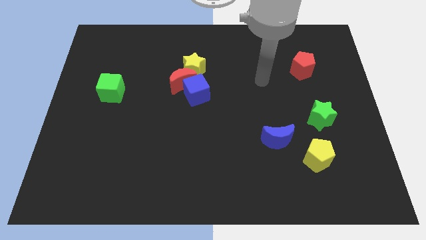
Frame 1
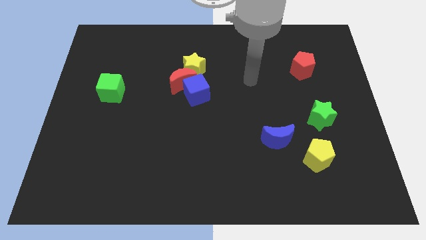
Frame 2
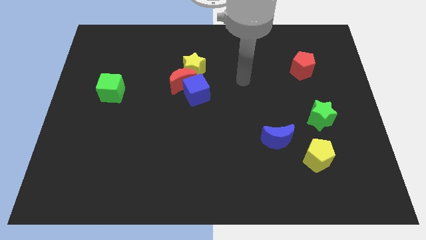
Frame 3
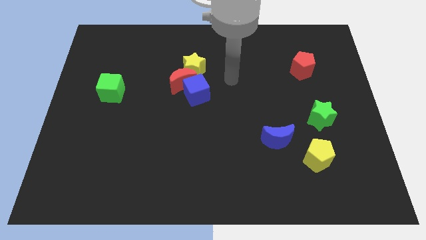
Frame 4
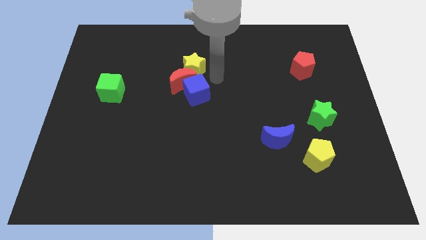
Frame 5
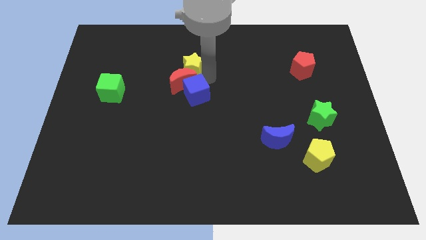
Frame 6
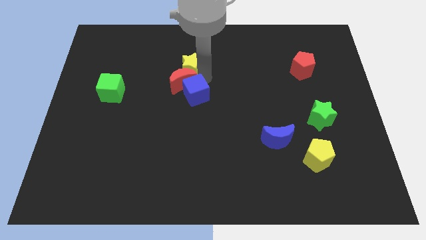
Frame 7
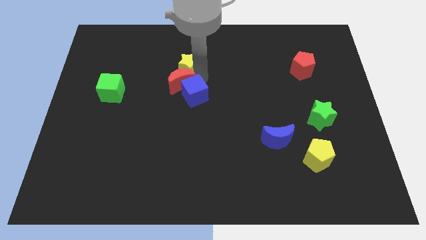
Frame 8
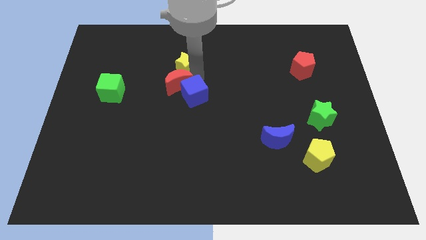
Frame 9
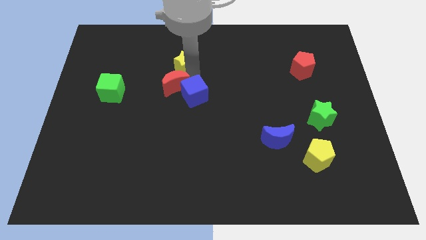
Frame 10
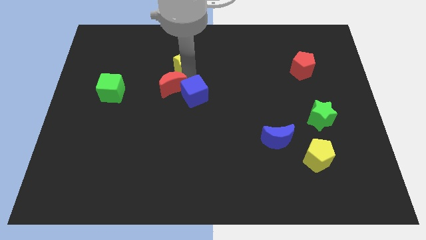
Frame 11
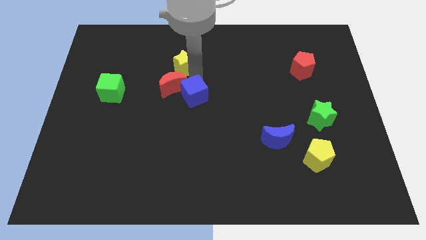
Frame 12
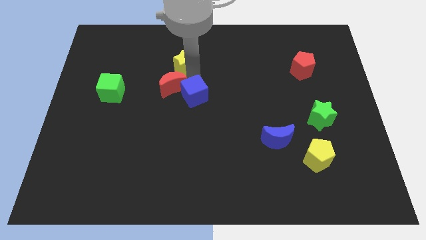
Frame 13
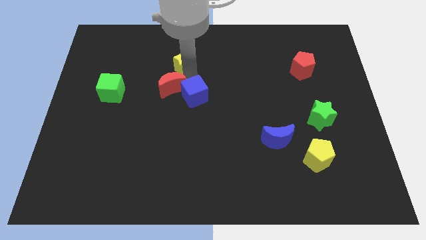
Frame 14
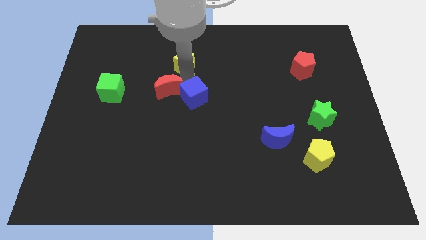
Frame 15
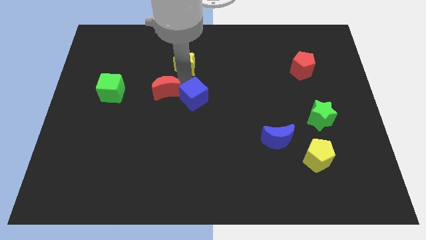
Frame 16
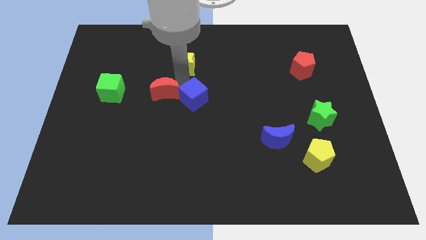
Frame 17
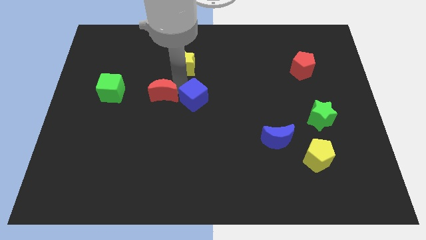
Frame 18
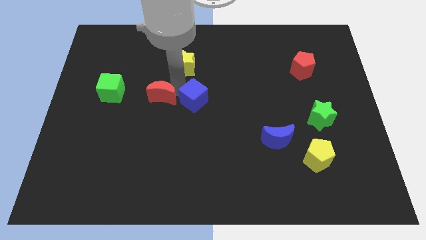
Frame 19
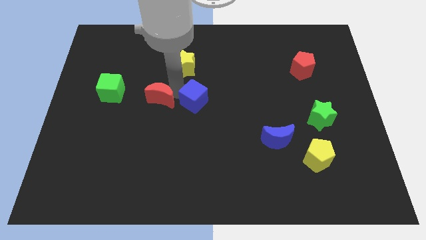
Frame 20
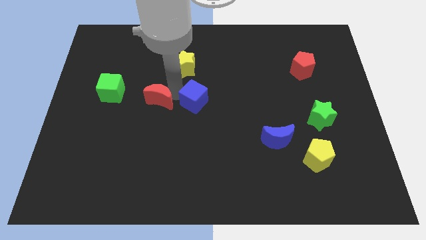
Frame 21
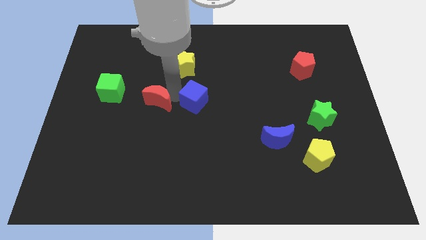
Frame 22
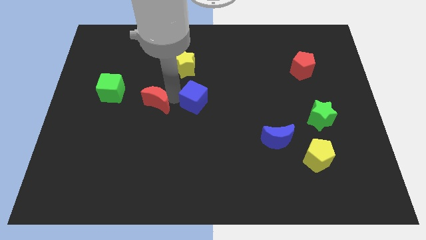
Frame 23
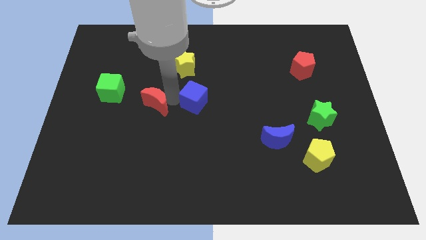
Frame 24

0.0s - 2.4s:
pull the red moon apart from the blue cube and yellow star

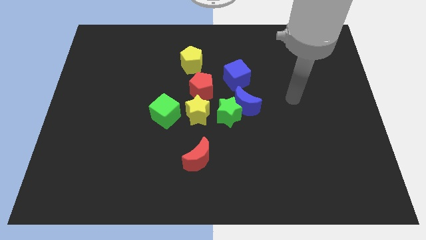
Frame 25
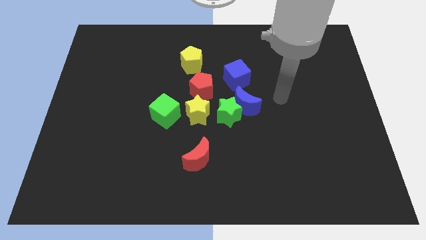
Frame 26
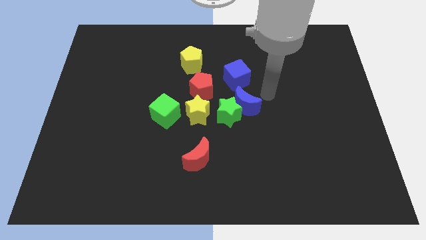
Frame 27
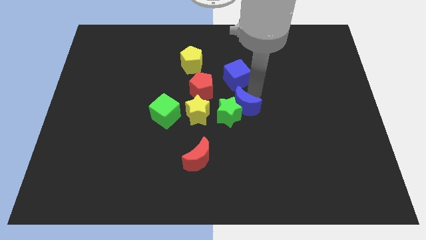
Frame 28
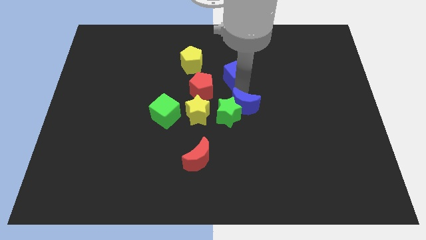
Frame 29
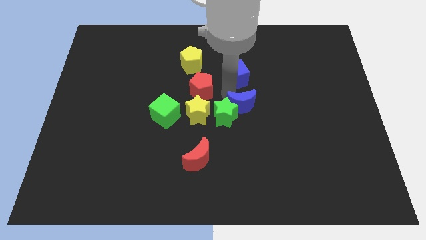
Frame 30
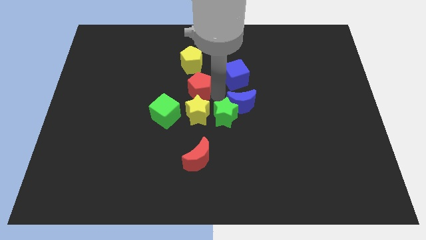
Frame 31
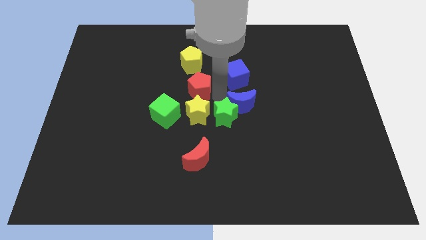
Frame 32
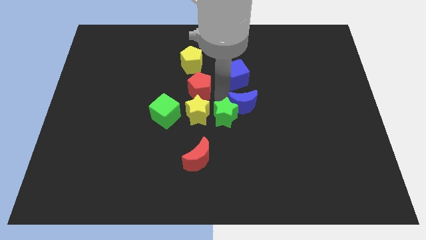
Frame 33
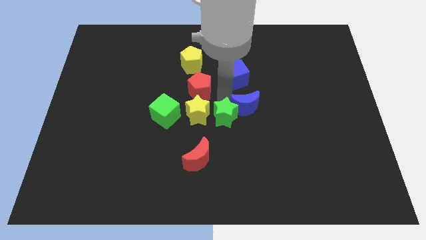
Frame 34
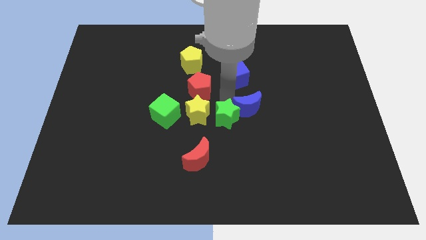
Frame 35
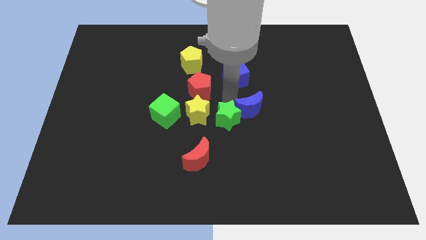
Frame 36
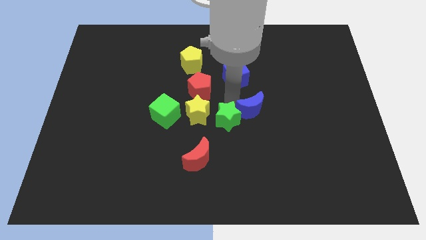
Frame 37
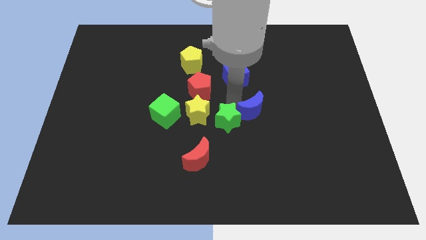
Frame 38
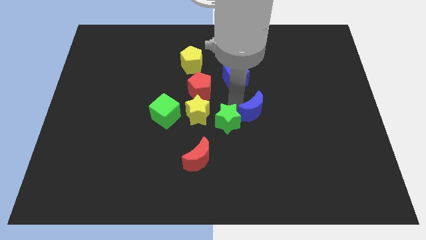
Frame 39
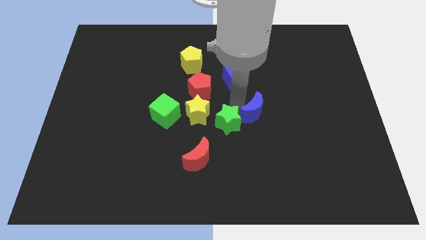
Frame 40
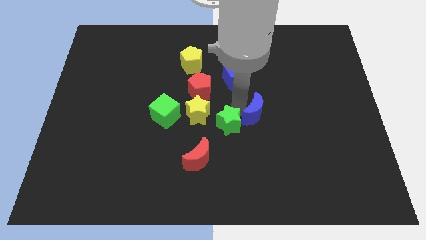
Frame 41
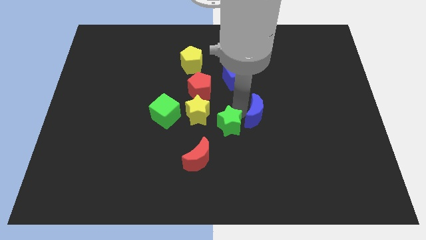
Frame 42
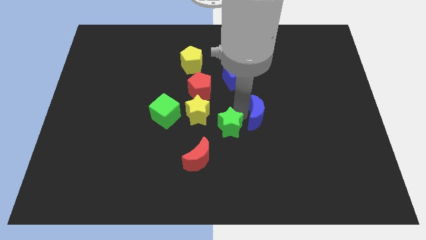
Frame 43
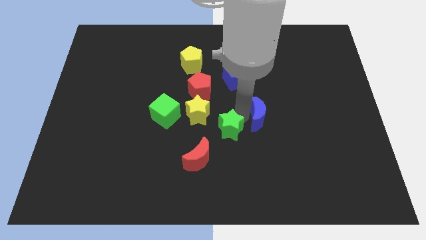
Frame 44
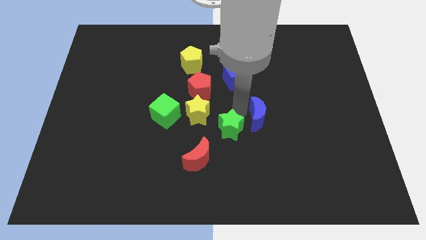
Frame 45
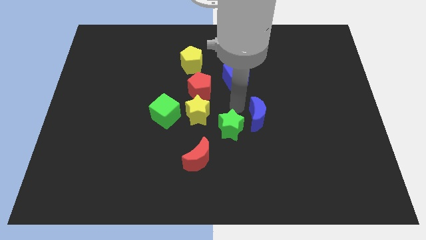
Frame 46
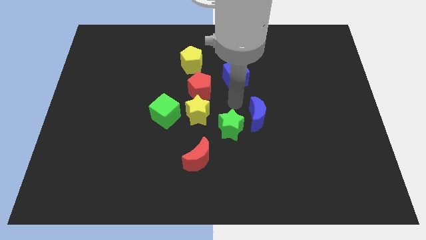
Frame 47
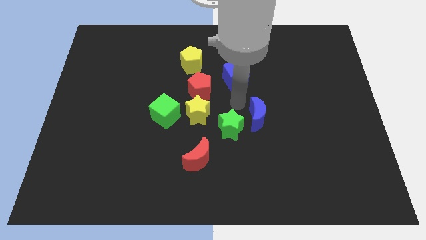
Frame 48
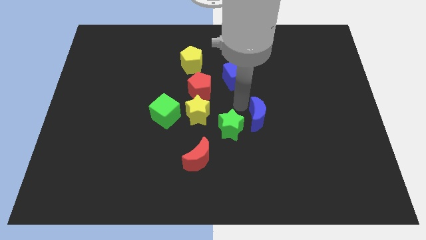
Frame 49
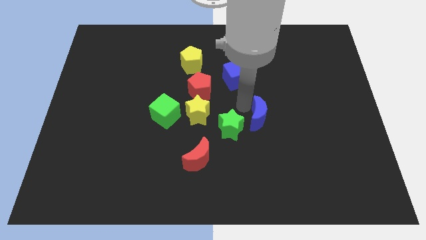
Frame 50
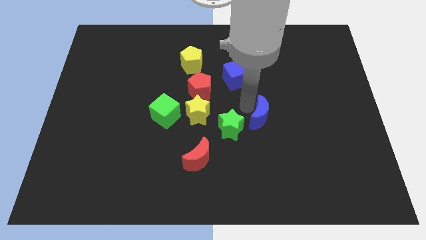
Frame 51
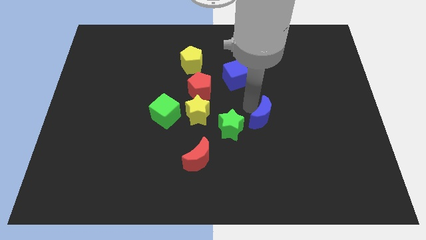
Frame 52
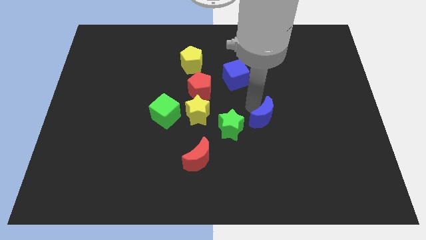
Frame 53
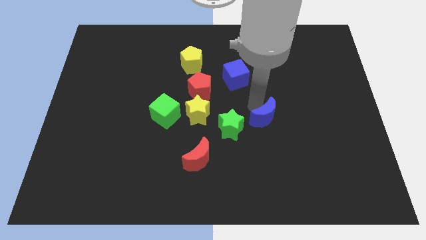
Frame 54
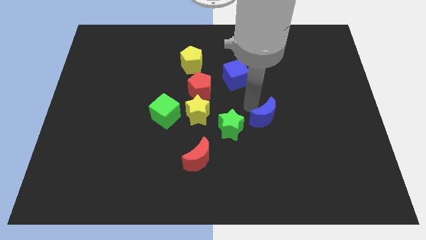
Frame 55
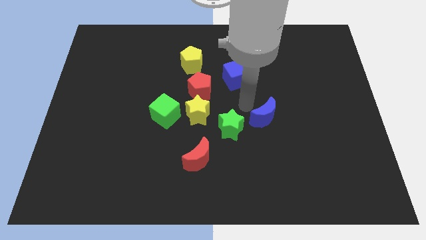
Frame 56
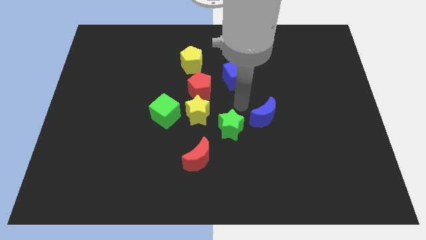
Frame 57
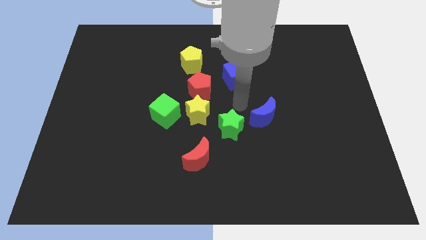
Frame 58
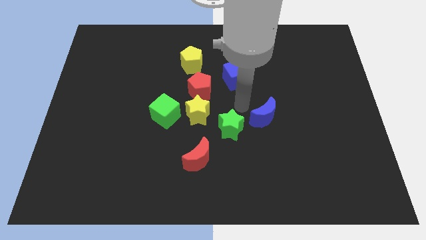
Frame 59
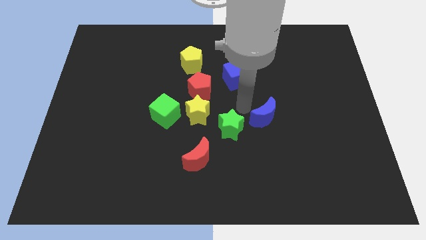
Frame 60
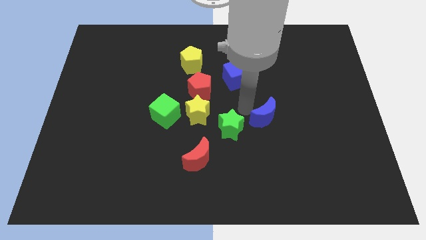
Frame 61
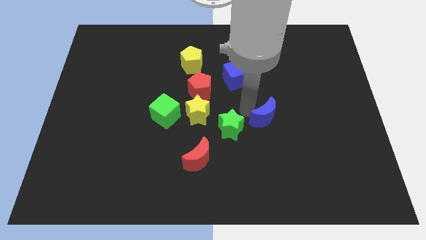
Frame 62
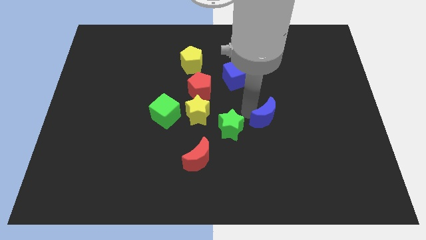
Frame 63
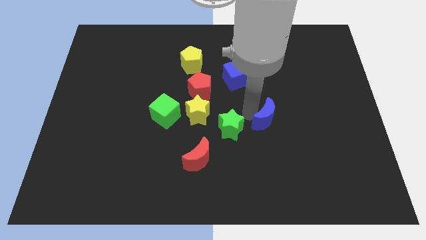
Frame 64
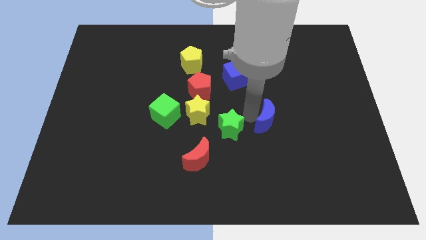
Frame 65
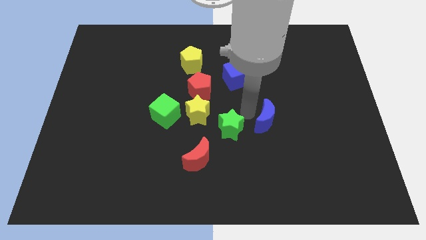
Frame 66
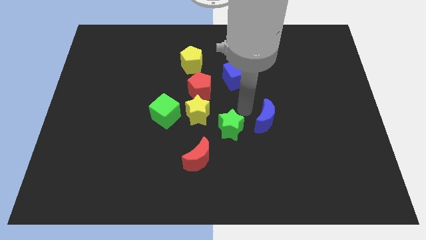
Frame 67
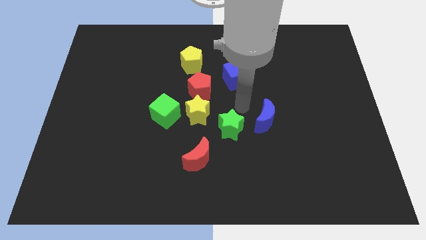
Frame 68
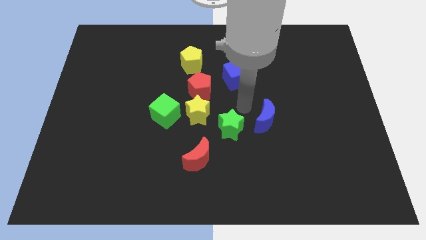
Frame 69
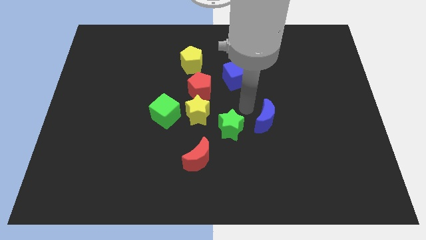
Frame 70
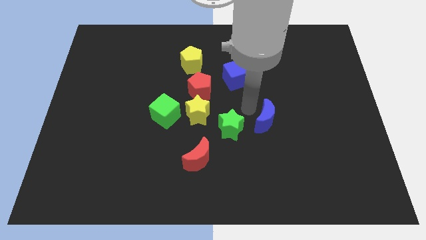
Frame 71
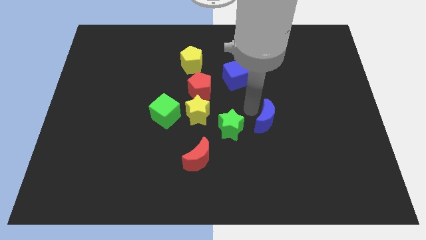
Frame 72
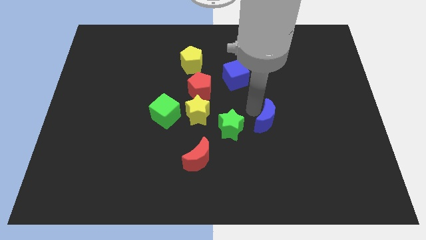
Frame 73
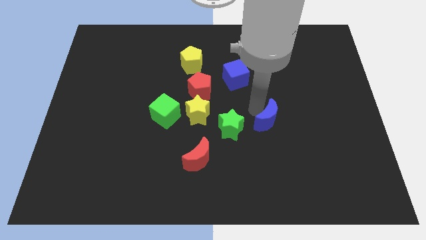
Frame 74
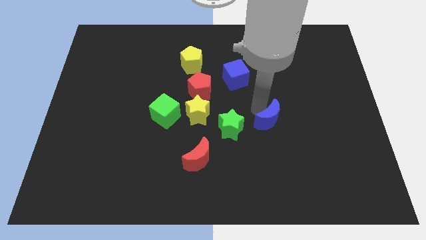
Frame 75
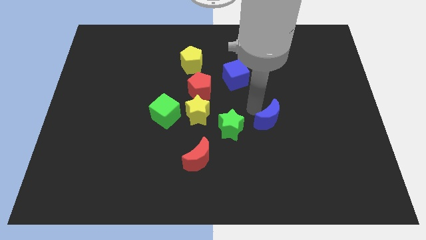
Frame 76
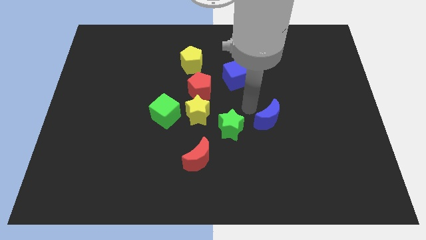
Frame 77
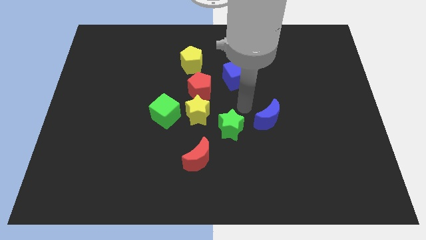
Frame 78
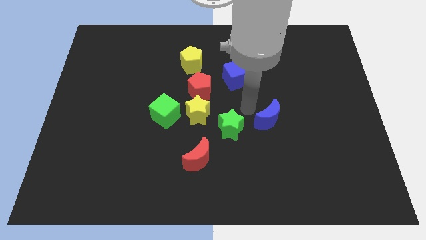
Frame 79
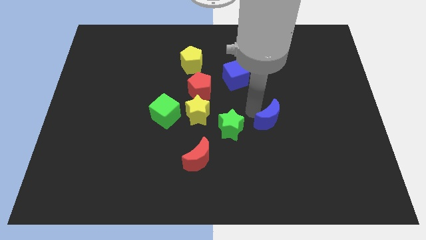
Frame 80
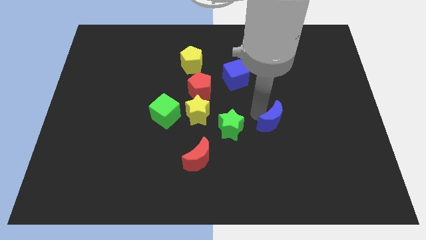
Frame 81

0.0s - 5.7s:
separate the blue moon from the green star and blue cube

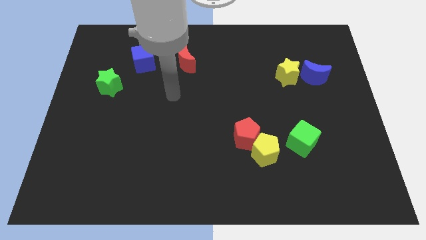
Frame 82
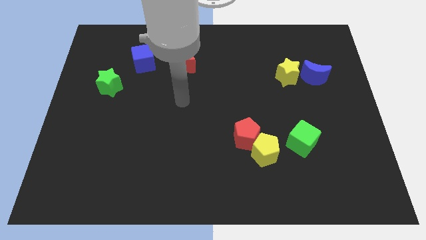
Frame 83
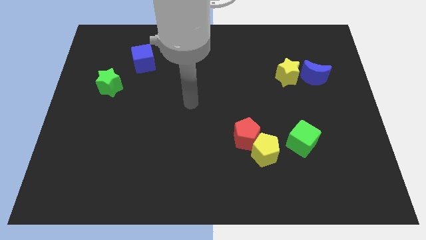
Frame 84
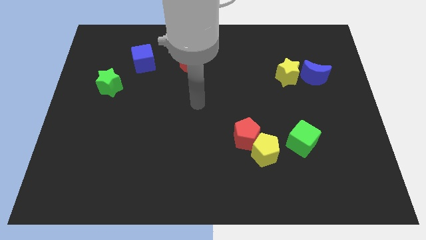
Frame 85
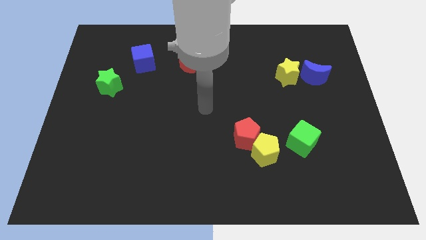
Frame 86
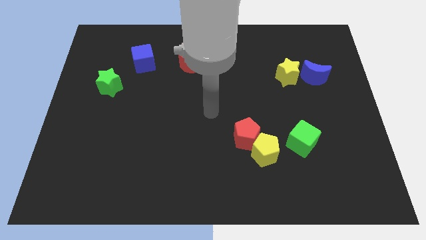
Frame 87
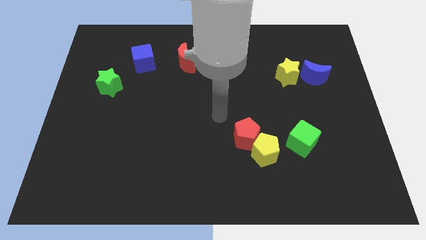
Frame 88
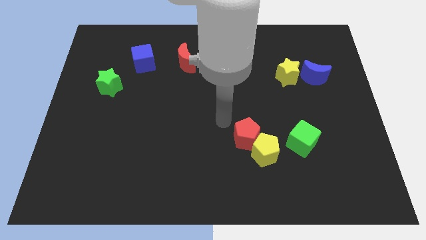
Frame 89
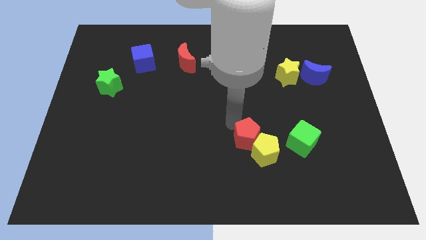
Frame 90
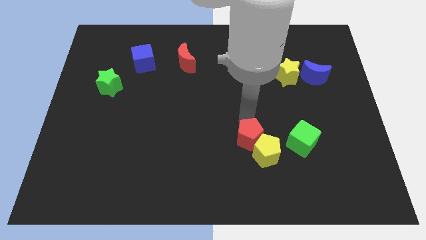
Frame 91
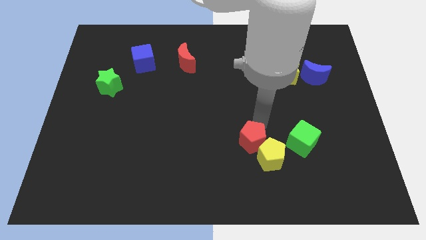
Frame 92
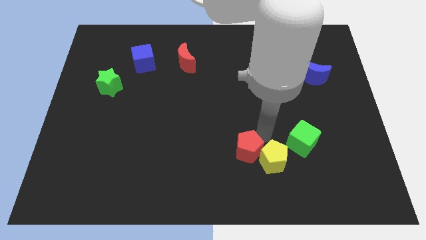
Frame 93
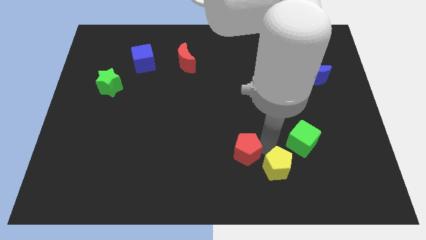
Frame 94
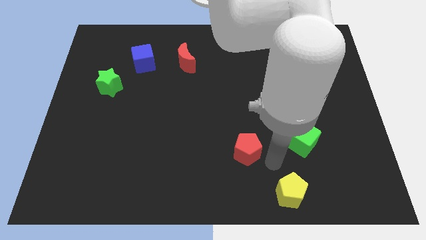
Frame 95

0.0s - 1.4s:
separate the red pentagon from the yellow pentagon
